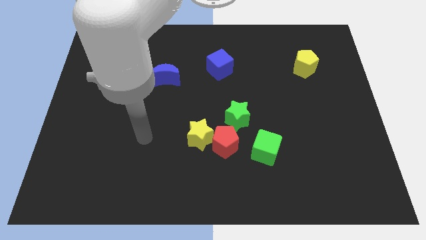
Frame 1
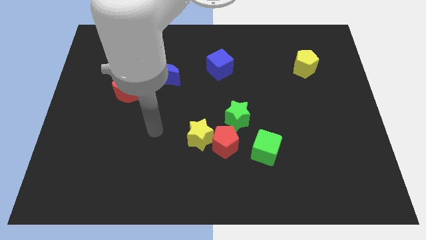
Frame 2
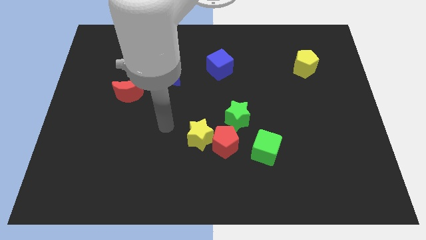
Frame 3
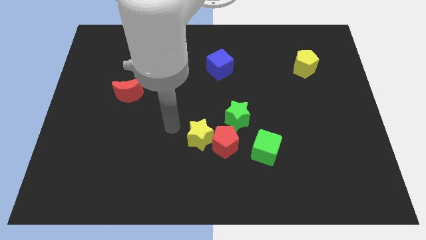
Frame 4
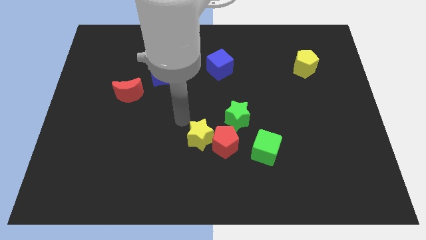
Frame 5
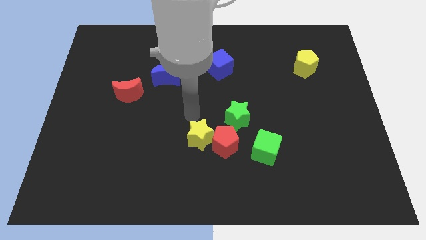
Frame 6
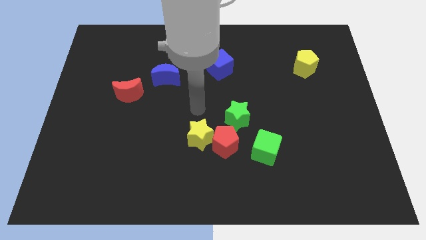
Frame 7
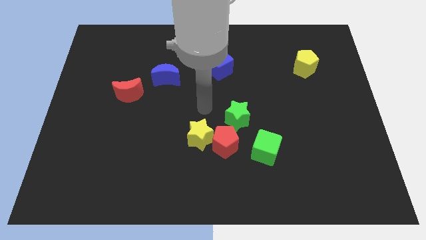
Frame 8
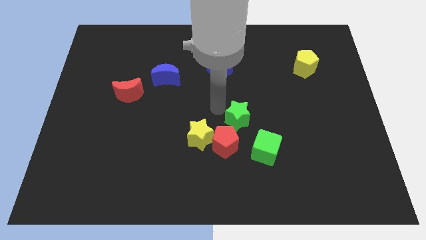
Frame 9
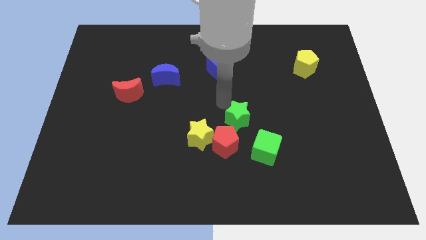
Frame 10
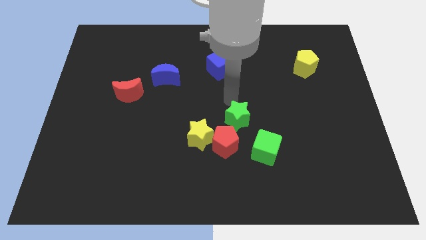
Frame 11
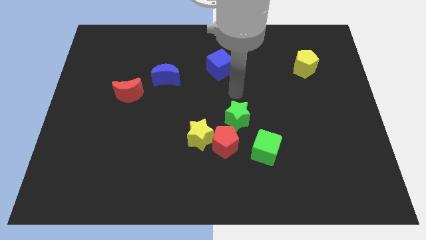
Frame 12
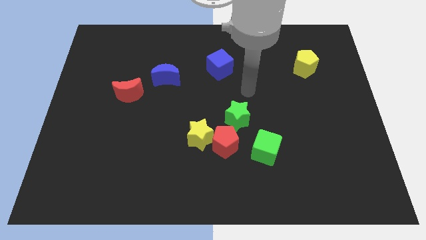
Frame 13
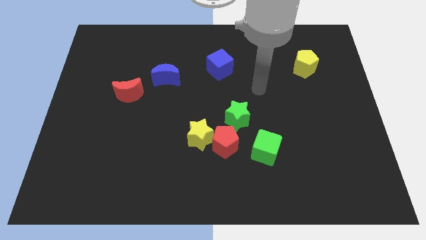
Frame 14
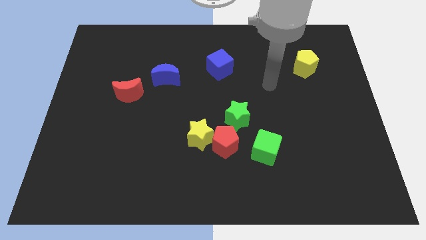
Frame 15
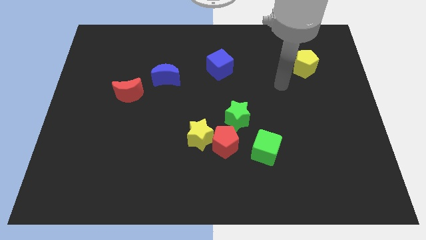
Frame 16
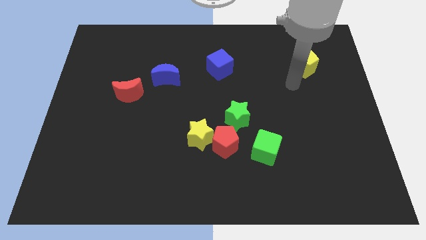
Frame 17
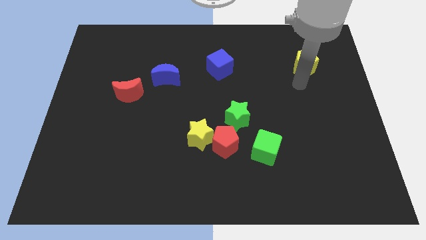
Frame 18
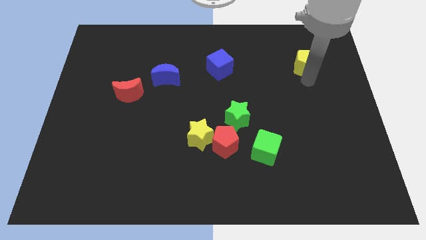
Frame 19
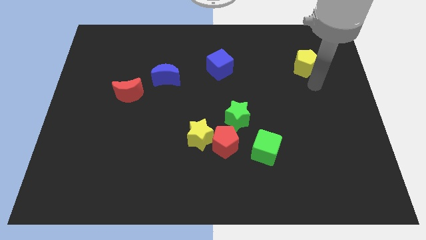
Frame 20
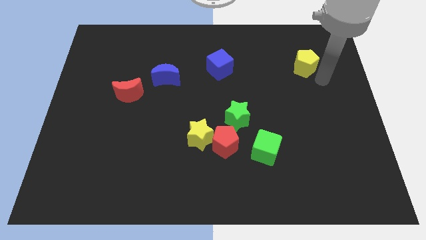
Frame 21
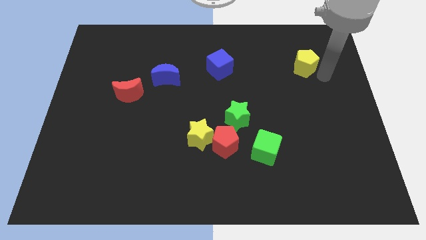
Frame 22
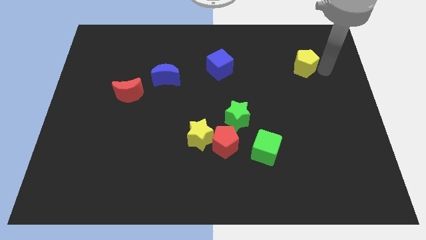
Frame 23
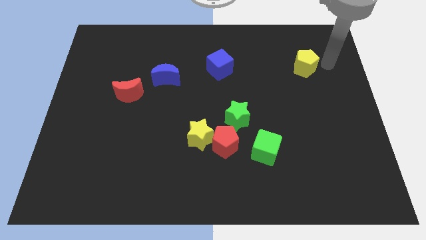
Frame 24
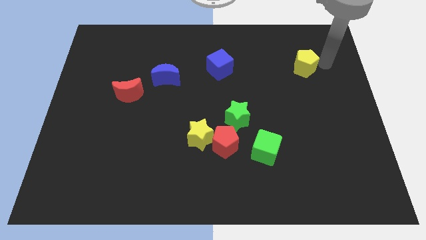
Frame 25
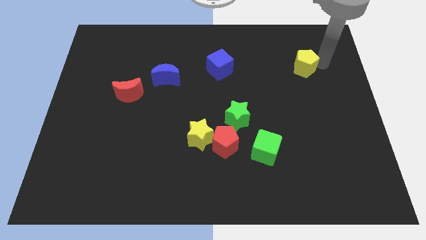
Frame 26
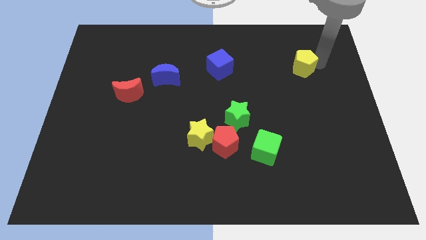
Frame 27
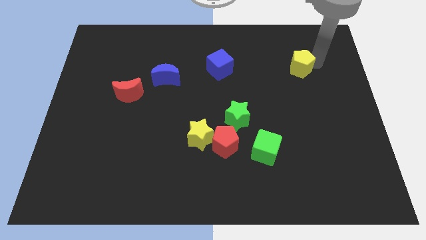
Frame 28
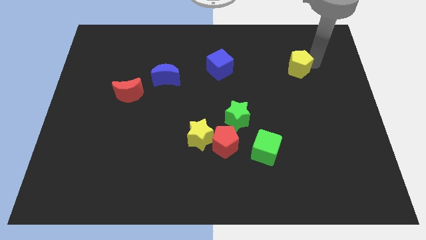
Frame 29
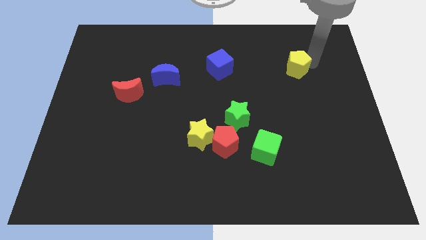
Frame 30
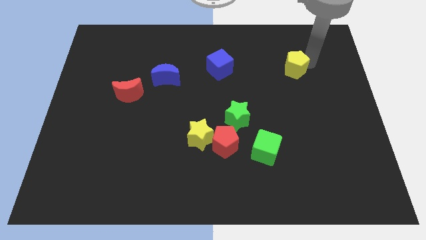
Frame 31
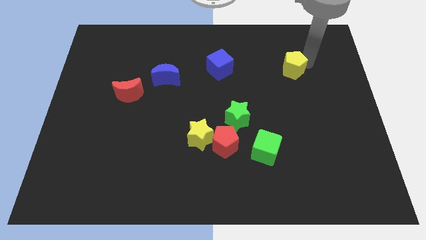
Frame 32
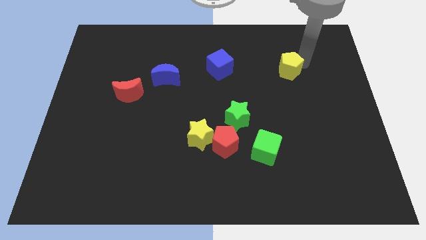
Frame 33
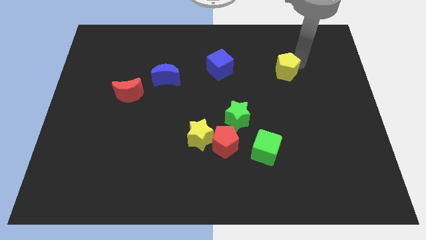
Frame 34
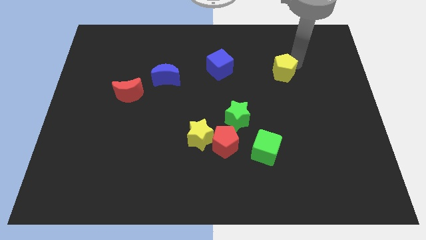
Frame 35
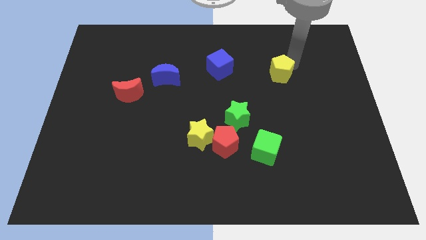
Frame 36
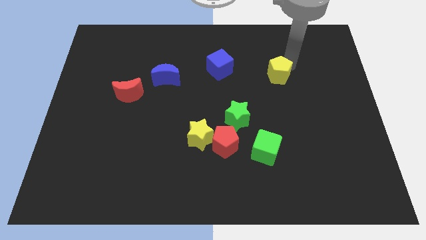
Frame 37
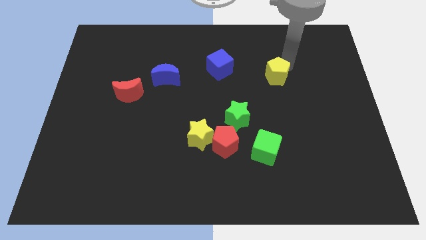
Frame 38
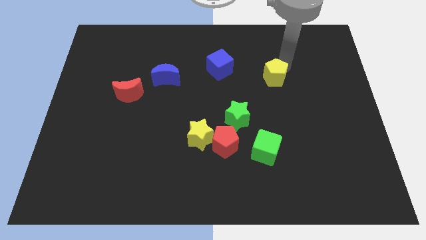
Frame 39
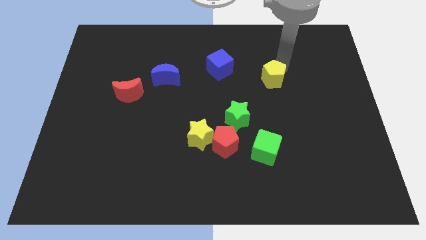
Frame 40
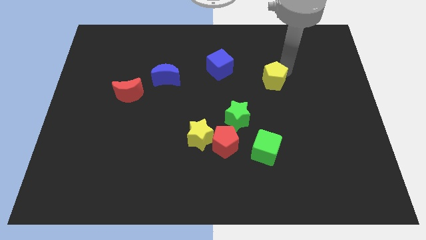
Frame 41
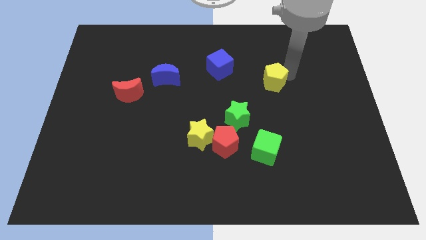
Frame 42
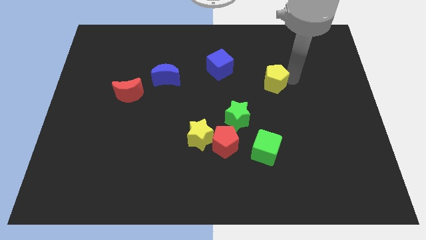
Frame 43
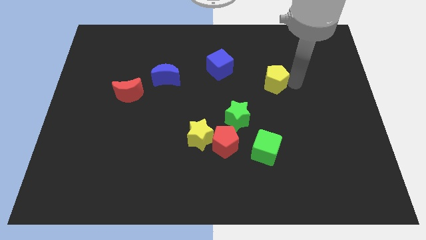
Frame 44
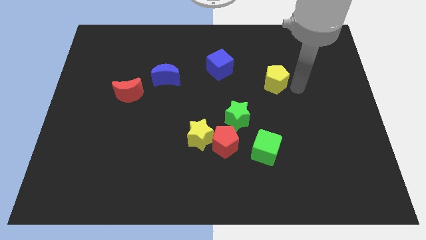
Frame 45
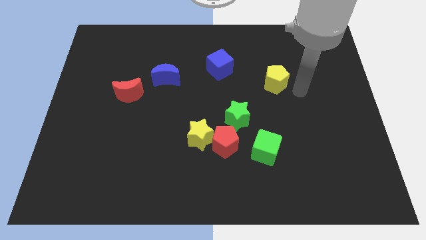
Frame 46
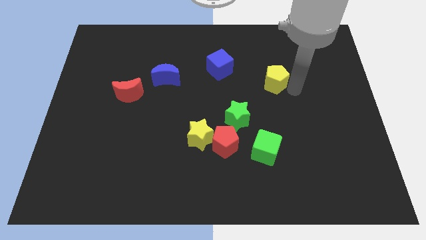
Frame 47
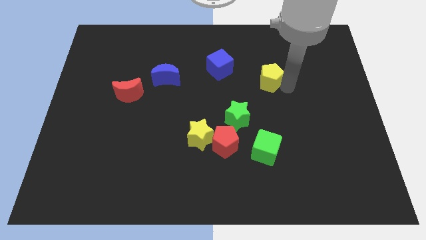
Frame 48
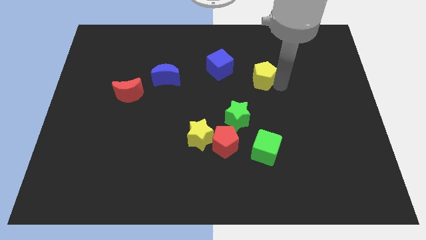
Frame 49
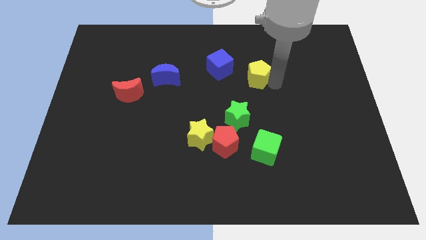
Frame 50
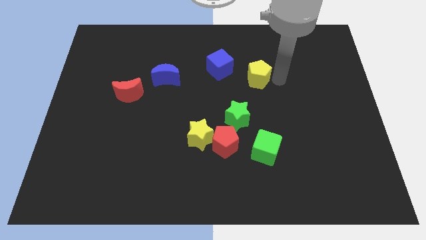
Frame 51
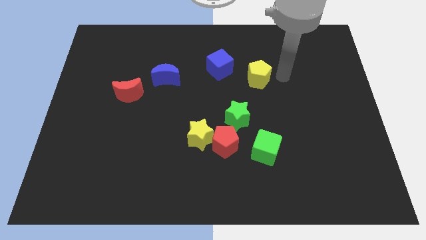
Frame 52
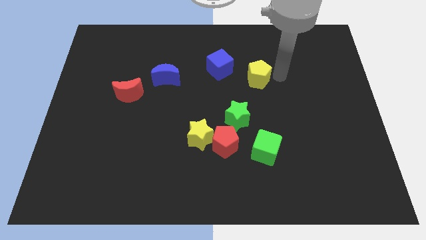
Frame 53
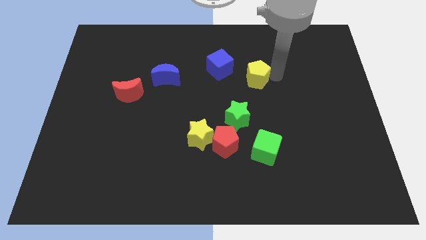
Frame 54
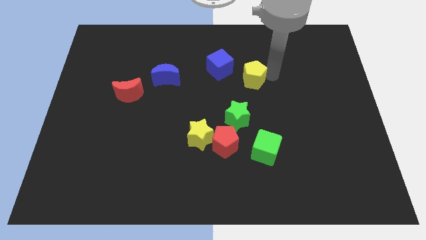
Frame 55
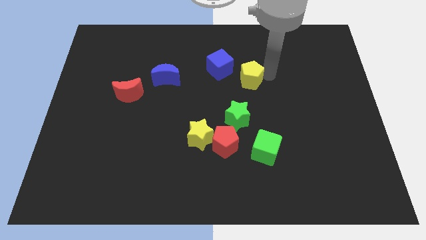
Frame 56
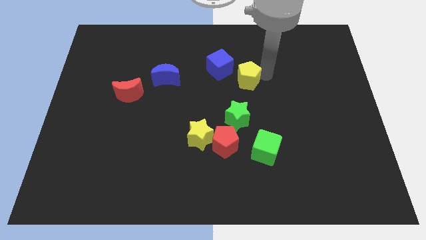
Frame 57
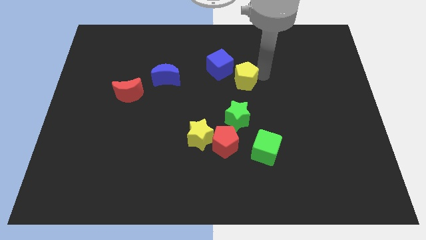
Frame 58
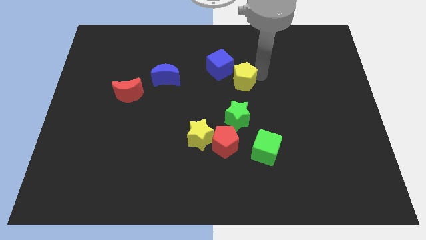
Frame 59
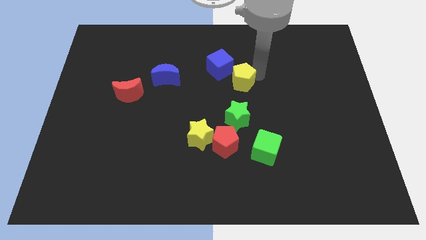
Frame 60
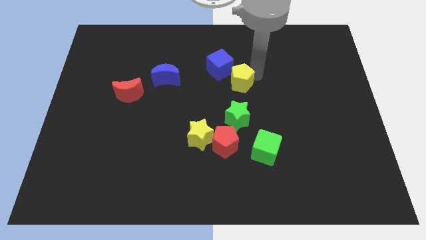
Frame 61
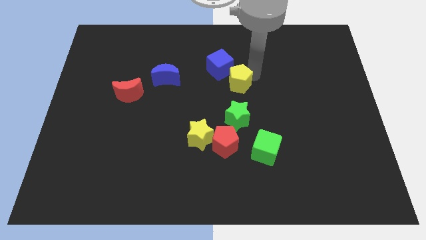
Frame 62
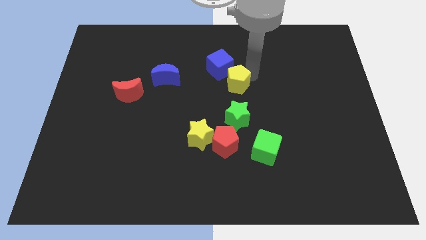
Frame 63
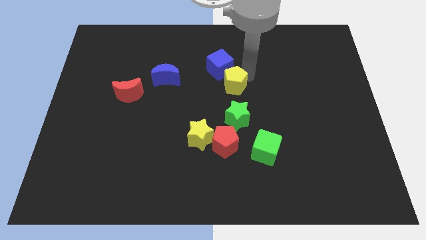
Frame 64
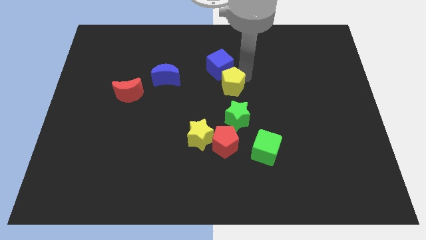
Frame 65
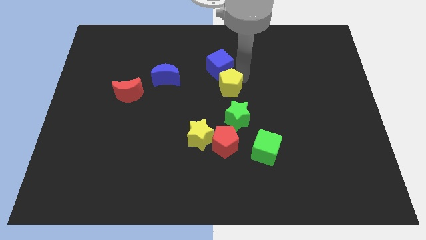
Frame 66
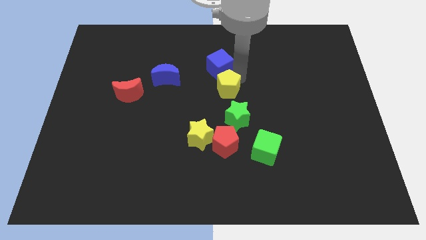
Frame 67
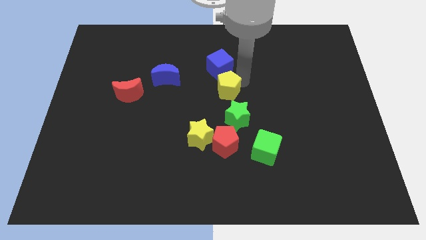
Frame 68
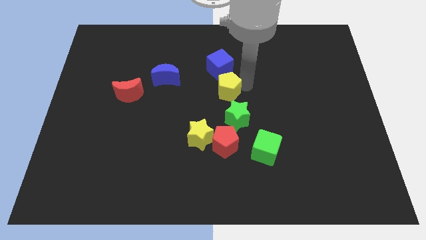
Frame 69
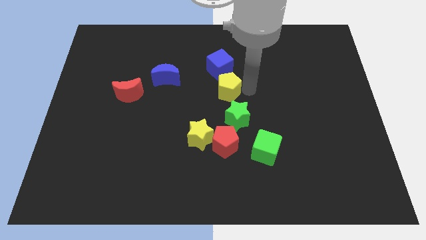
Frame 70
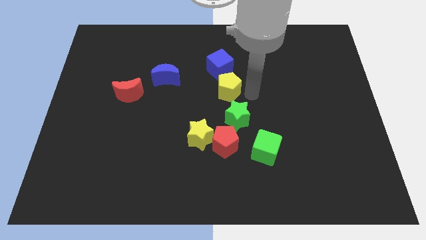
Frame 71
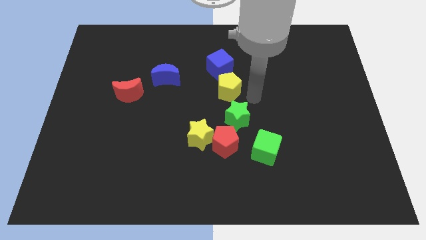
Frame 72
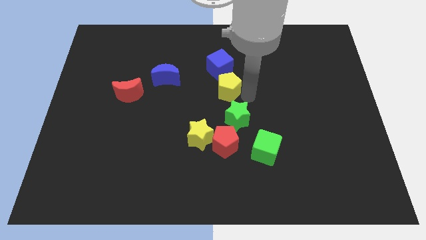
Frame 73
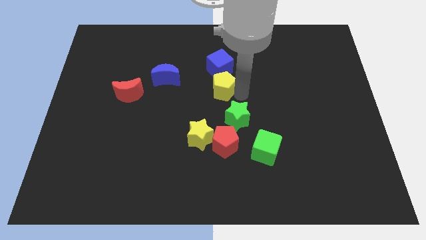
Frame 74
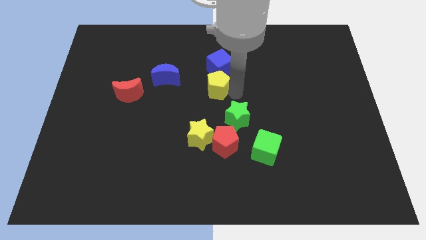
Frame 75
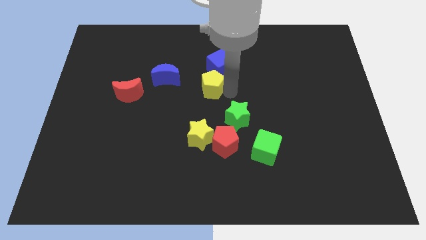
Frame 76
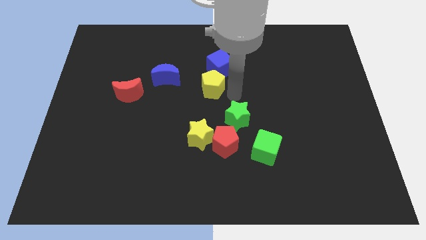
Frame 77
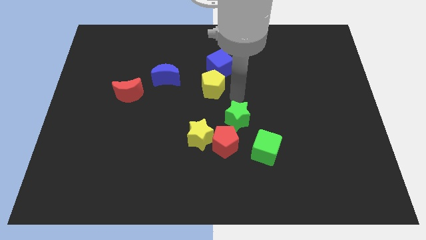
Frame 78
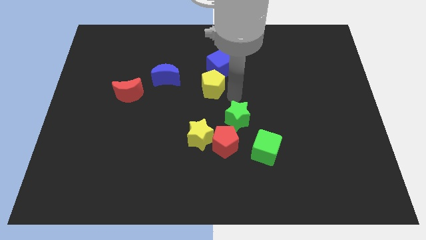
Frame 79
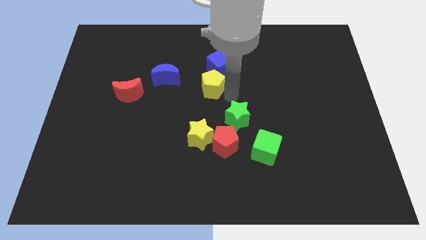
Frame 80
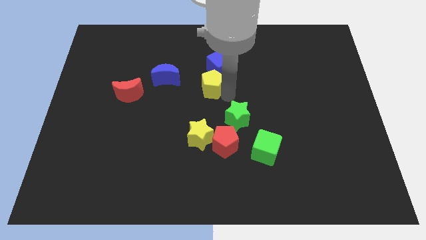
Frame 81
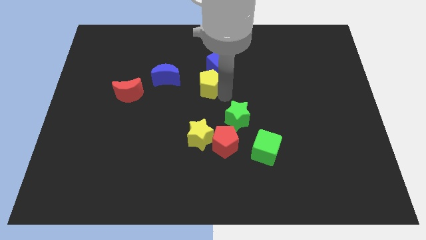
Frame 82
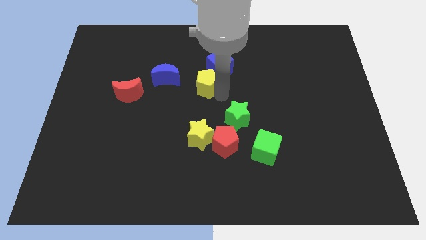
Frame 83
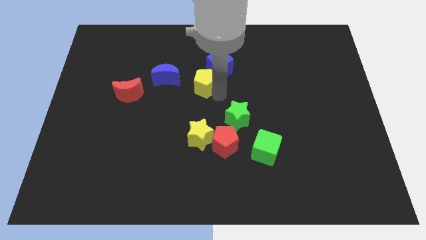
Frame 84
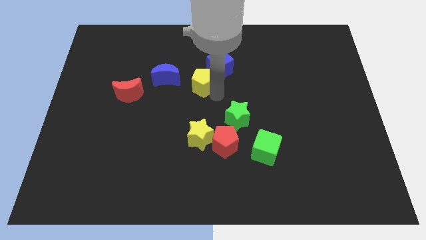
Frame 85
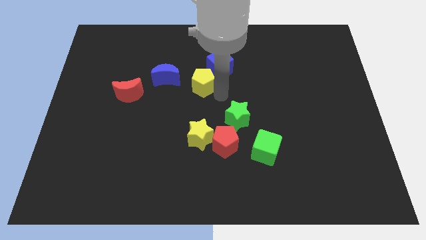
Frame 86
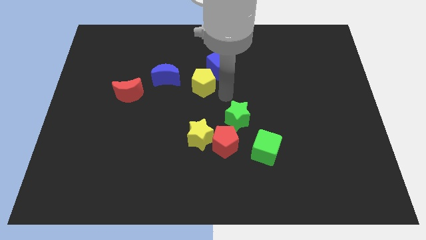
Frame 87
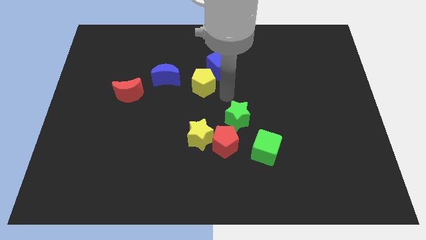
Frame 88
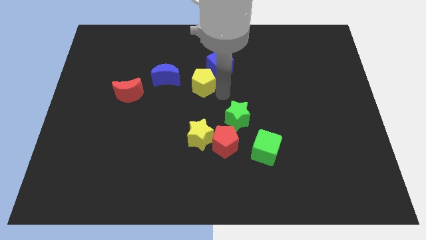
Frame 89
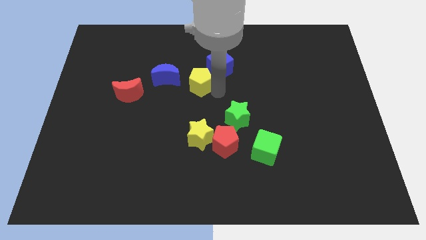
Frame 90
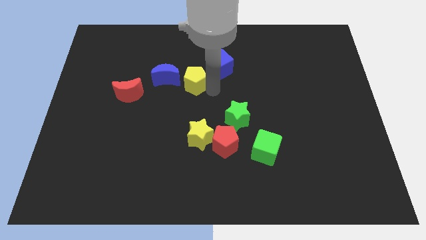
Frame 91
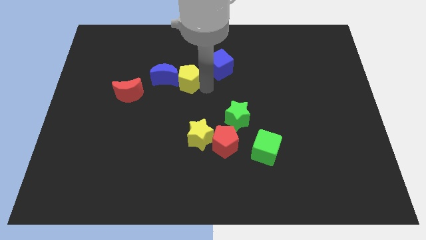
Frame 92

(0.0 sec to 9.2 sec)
push the yellow pentagon close to the blue moon
